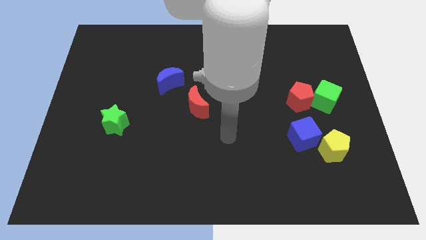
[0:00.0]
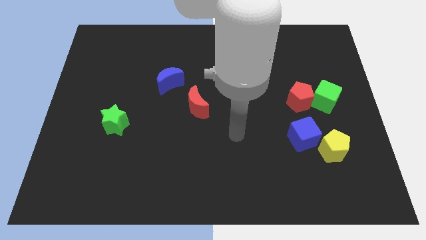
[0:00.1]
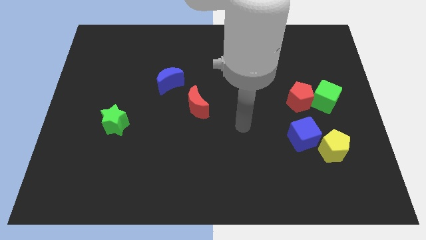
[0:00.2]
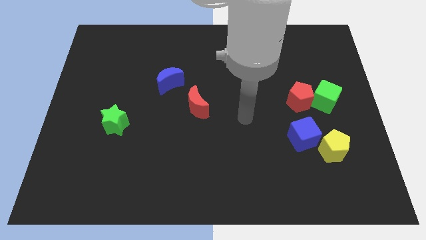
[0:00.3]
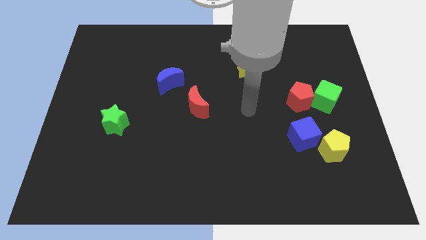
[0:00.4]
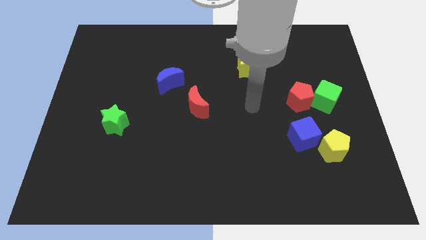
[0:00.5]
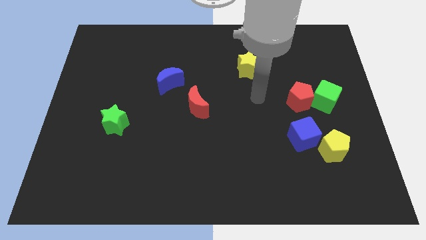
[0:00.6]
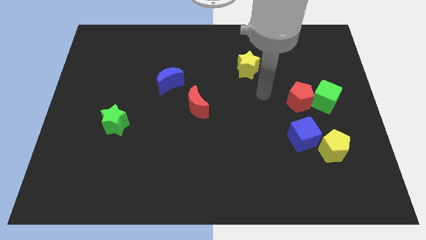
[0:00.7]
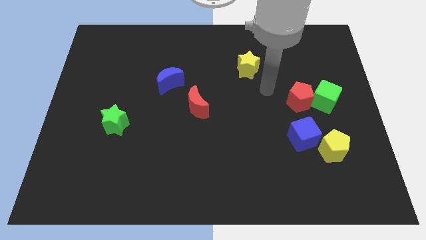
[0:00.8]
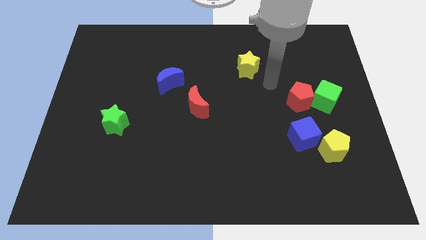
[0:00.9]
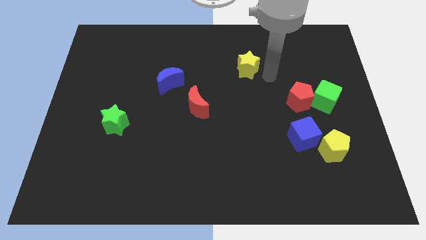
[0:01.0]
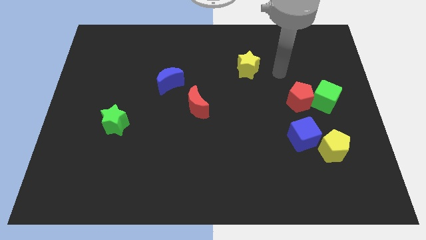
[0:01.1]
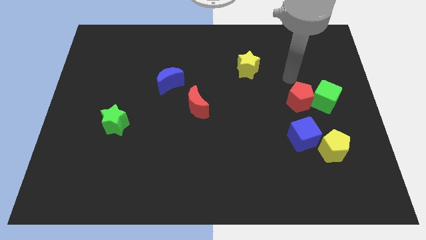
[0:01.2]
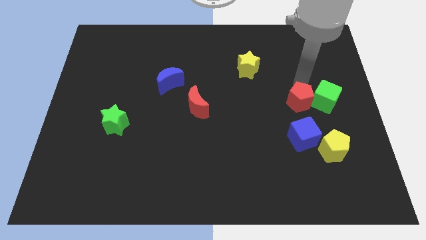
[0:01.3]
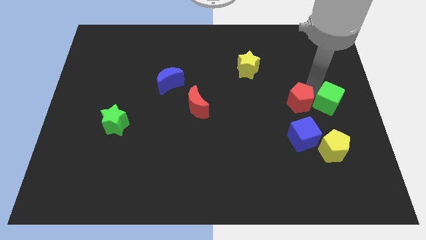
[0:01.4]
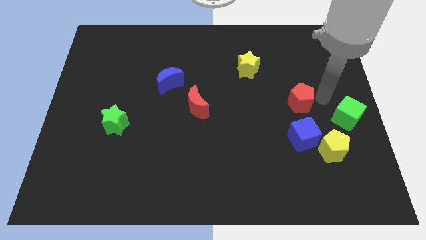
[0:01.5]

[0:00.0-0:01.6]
separate the red pentagon from the green cube

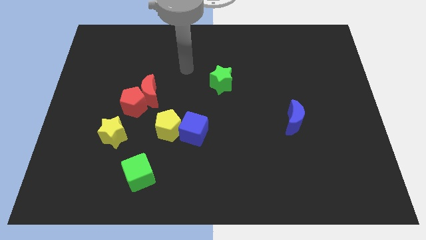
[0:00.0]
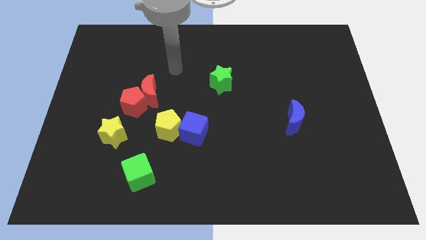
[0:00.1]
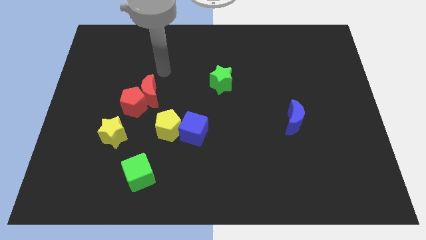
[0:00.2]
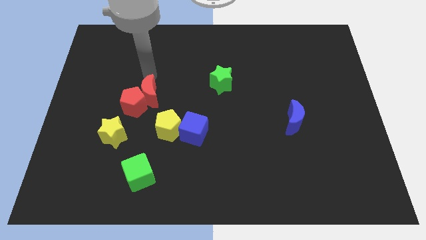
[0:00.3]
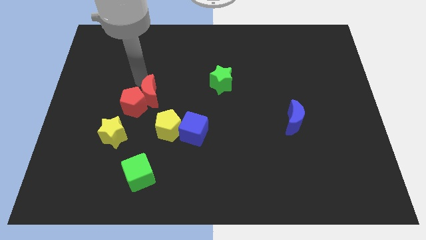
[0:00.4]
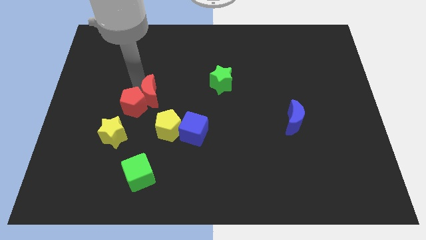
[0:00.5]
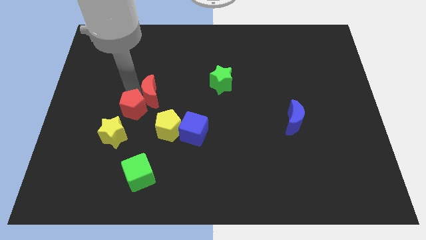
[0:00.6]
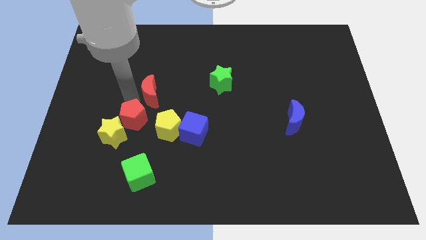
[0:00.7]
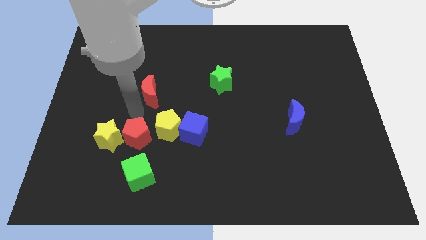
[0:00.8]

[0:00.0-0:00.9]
separate the red moon from the red pentagon

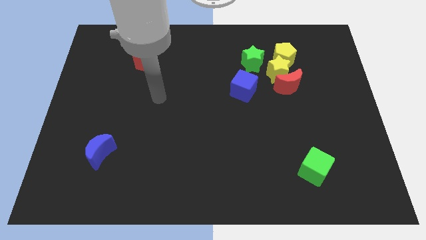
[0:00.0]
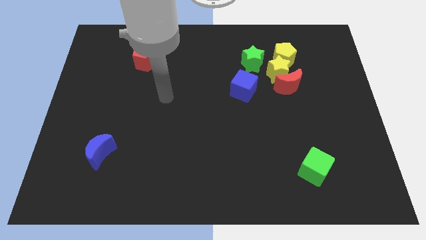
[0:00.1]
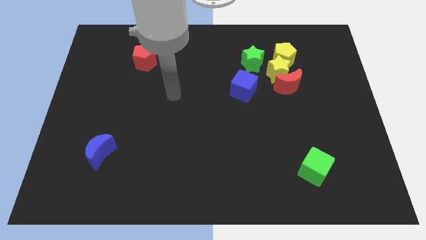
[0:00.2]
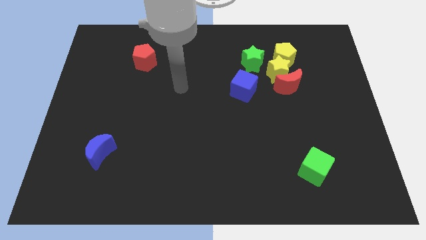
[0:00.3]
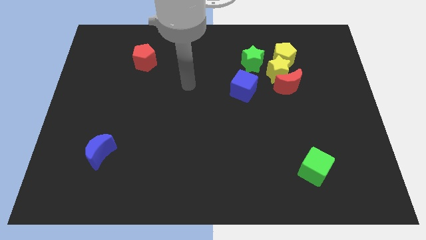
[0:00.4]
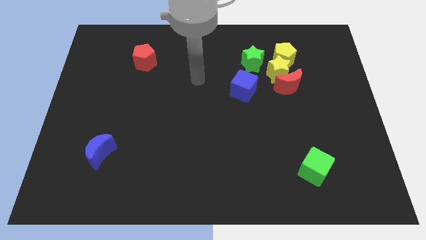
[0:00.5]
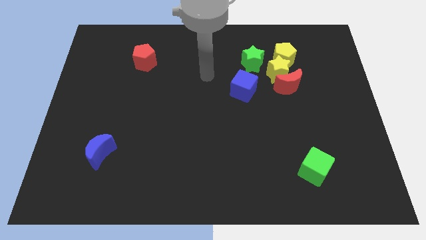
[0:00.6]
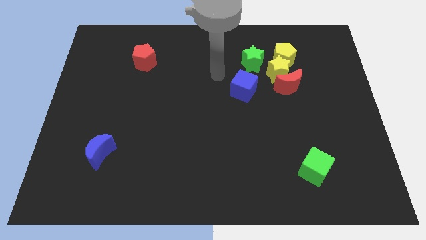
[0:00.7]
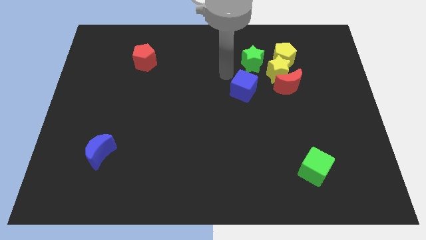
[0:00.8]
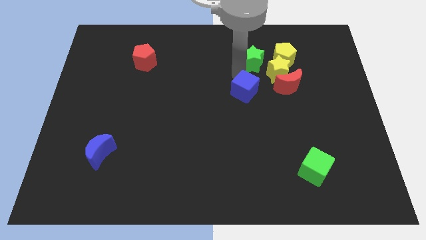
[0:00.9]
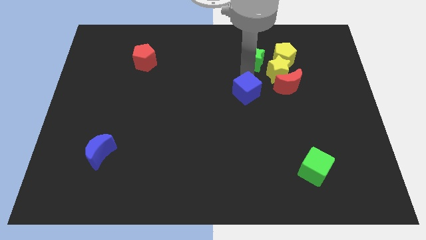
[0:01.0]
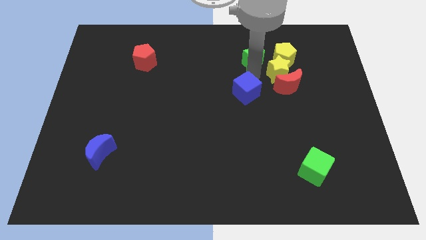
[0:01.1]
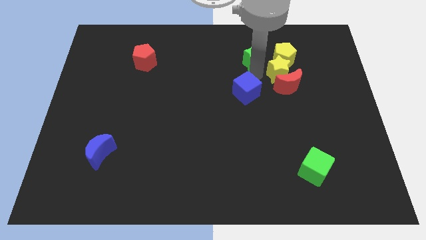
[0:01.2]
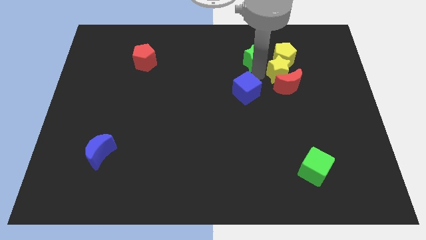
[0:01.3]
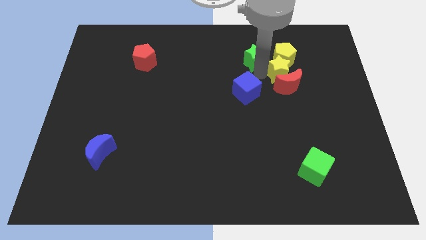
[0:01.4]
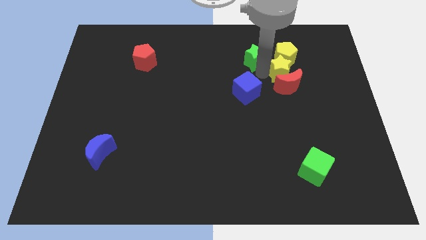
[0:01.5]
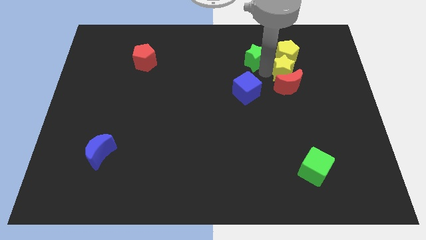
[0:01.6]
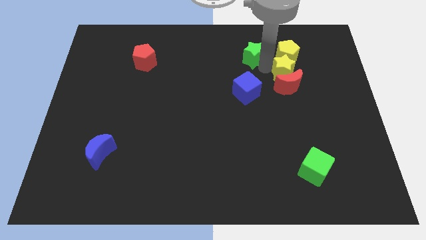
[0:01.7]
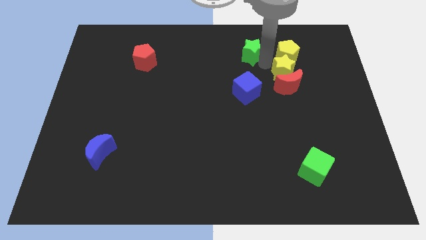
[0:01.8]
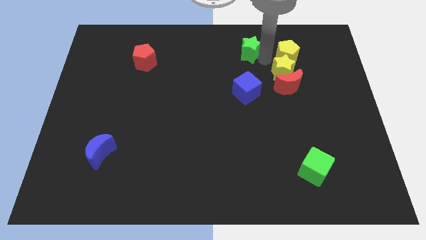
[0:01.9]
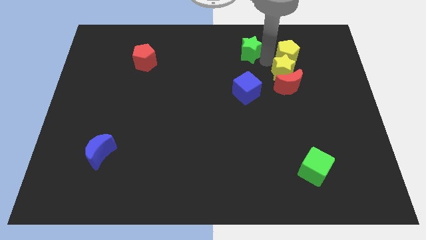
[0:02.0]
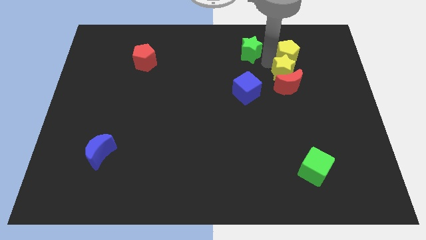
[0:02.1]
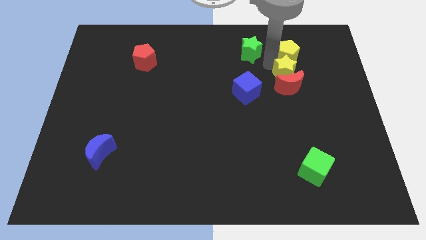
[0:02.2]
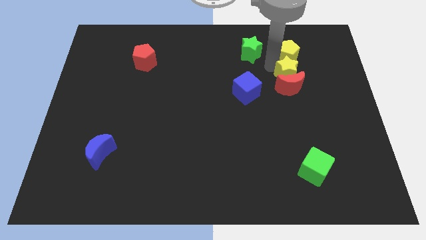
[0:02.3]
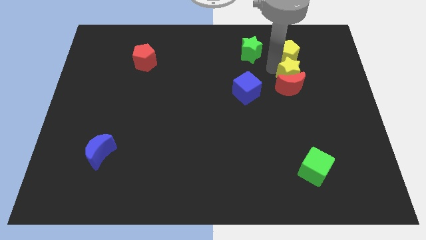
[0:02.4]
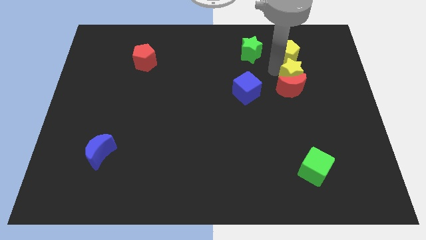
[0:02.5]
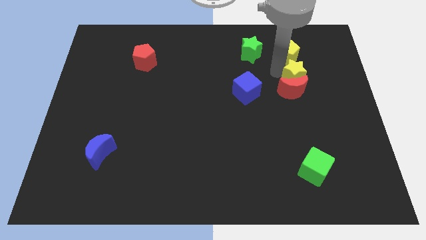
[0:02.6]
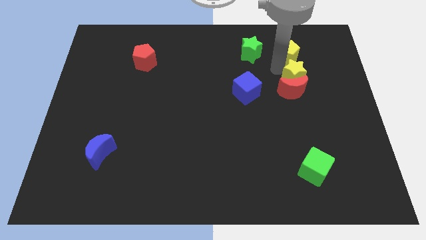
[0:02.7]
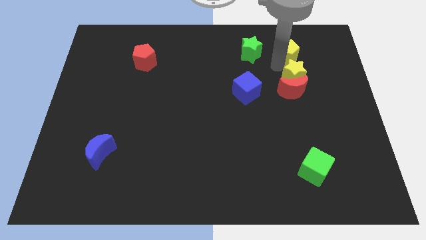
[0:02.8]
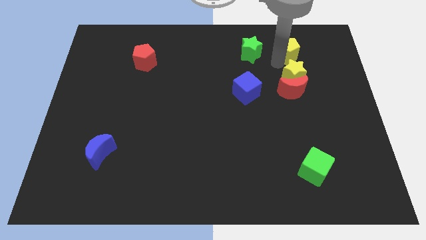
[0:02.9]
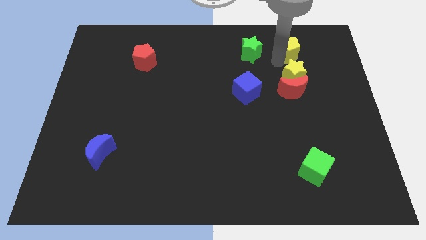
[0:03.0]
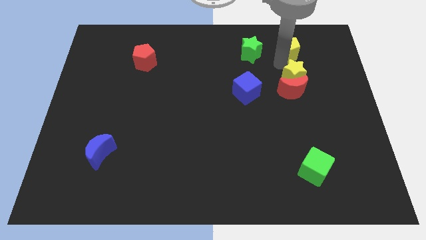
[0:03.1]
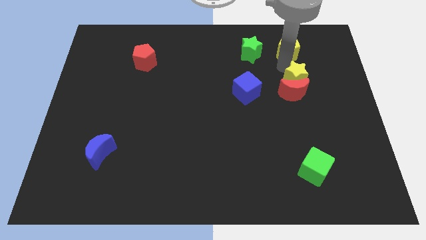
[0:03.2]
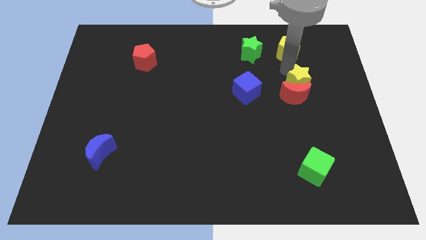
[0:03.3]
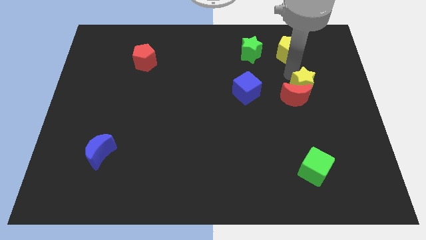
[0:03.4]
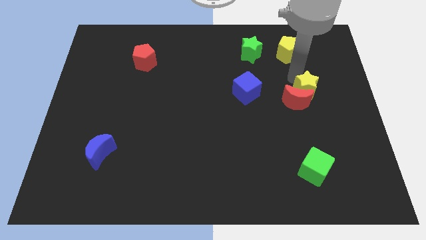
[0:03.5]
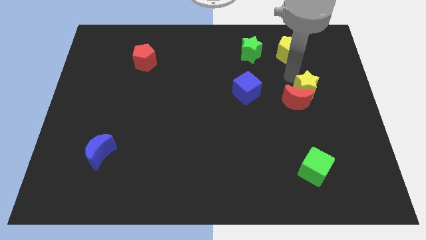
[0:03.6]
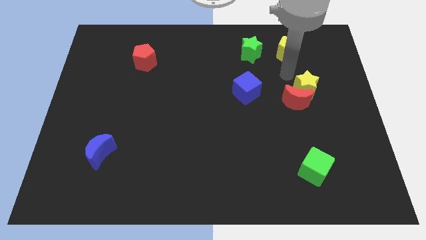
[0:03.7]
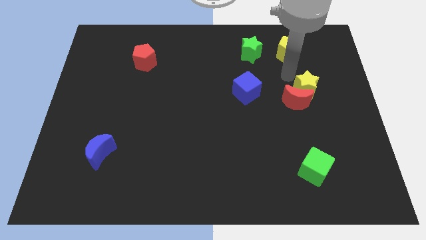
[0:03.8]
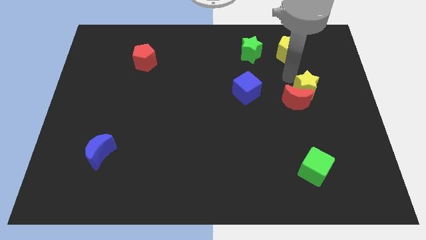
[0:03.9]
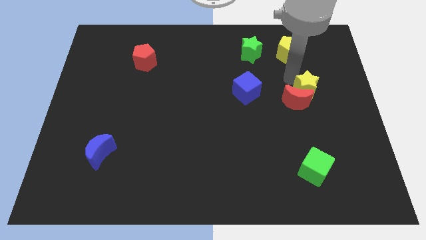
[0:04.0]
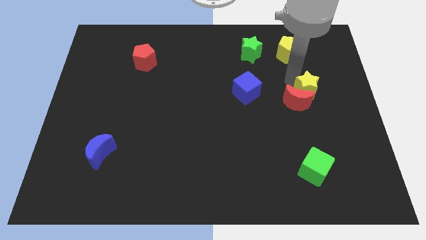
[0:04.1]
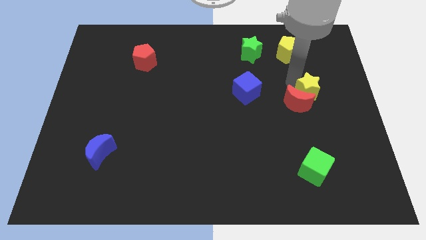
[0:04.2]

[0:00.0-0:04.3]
move the yellow star away from the clump

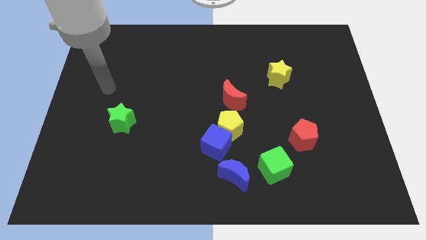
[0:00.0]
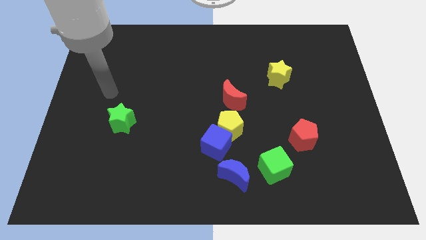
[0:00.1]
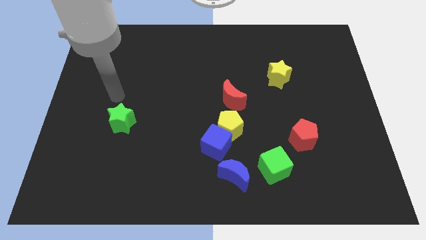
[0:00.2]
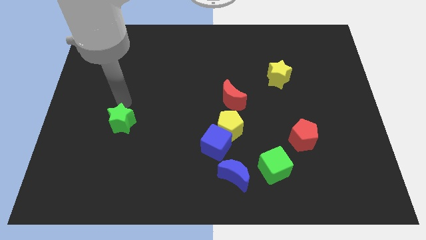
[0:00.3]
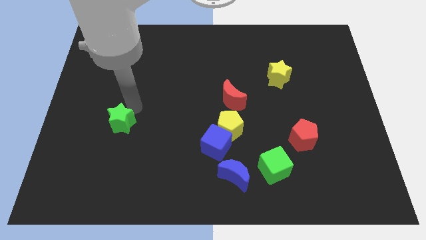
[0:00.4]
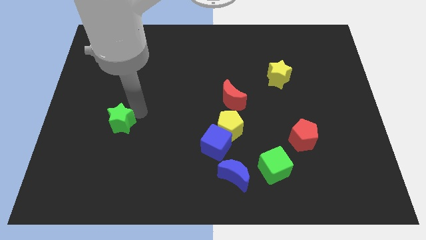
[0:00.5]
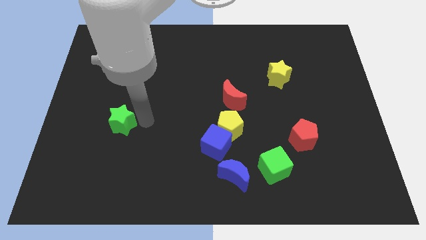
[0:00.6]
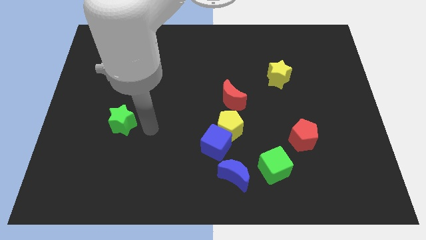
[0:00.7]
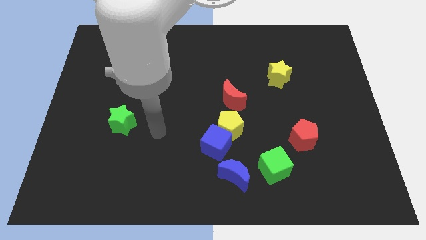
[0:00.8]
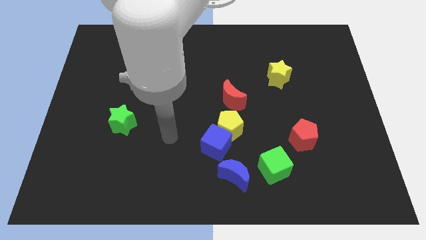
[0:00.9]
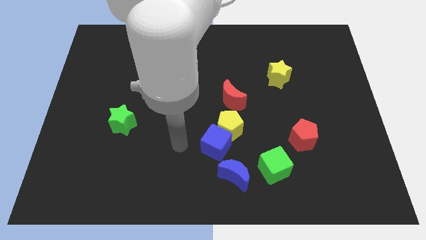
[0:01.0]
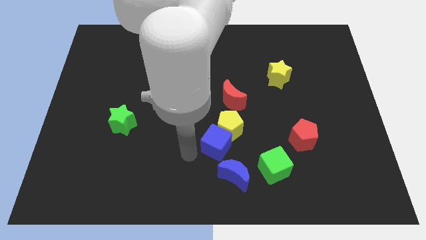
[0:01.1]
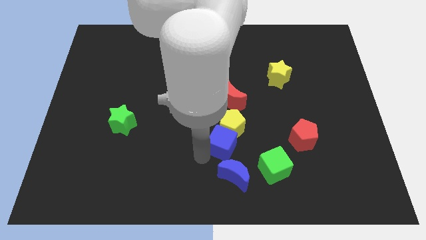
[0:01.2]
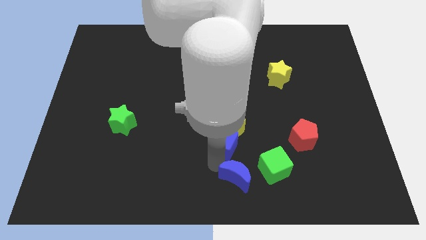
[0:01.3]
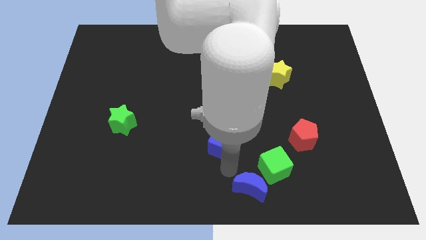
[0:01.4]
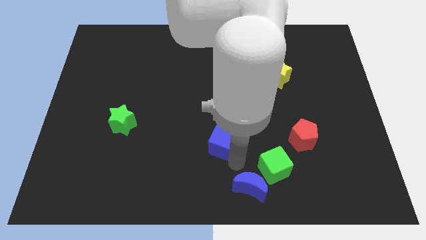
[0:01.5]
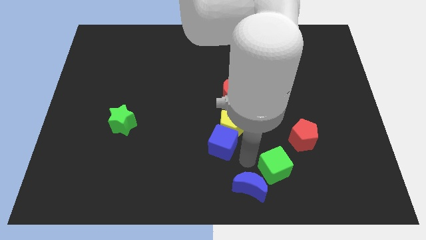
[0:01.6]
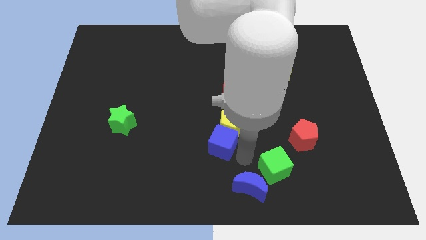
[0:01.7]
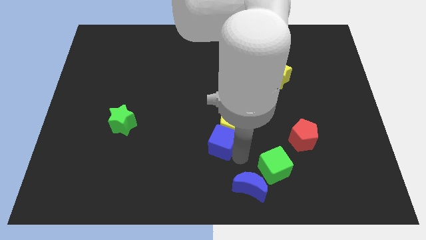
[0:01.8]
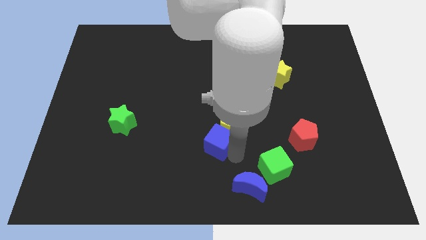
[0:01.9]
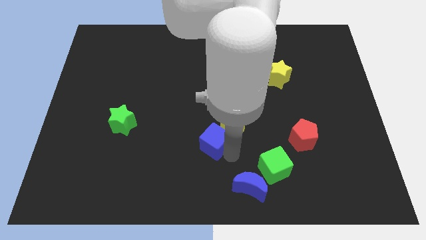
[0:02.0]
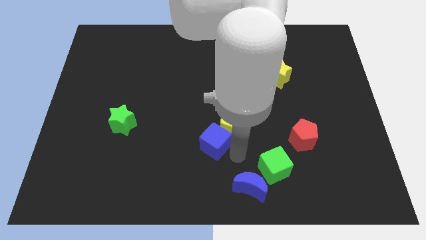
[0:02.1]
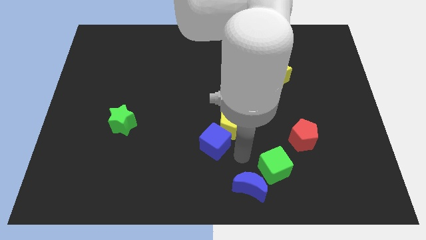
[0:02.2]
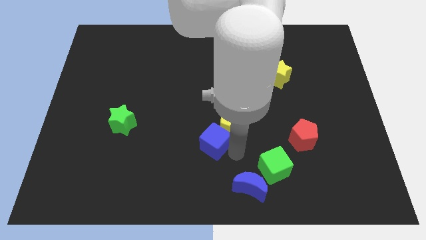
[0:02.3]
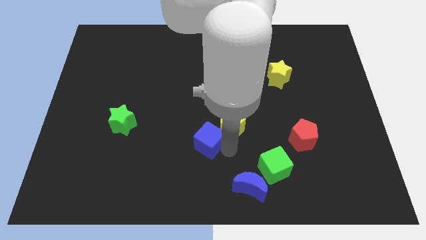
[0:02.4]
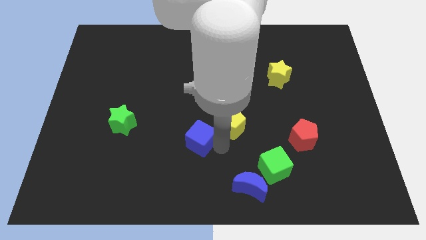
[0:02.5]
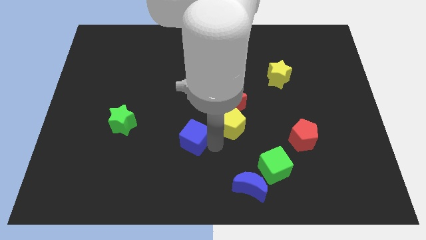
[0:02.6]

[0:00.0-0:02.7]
pull the blue cube apart from the yellow pentagon and blue moon
